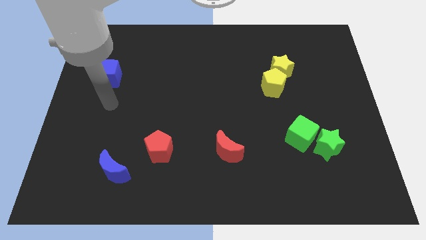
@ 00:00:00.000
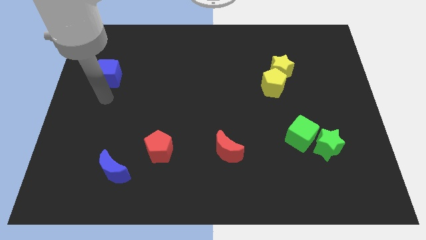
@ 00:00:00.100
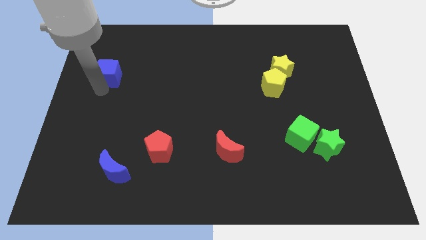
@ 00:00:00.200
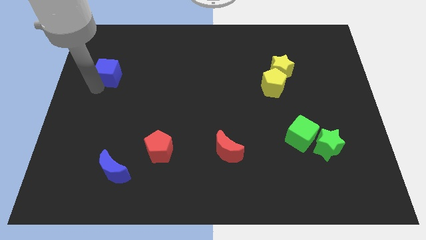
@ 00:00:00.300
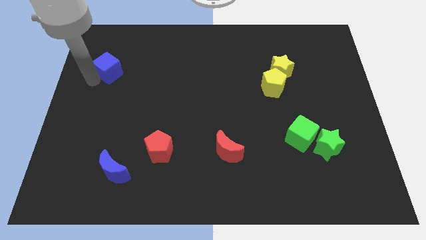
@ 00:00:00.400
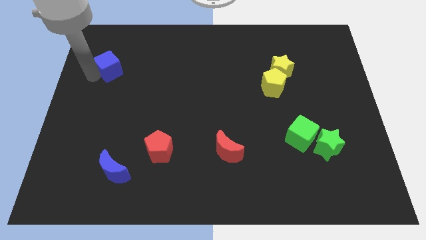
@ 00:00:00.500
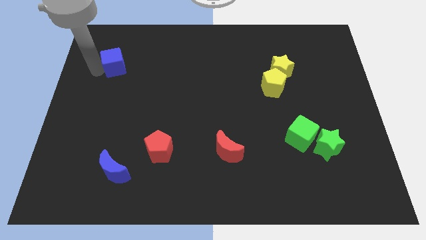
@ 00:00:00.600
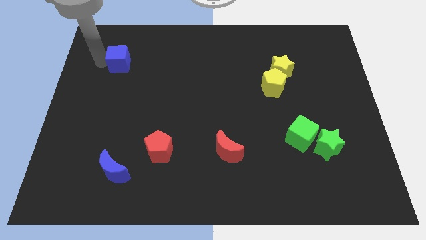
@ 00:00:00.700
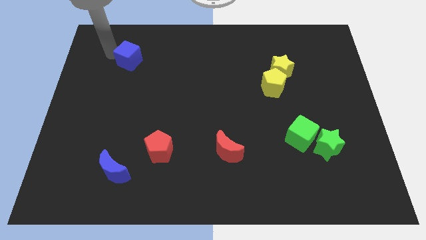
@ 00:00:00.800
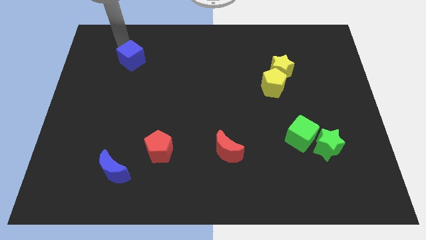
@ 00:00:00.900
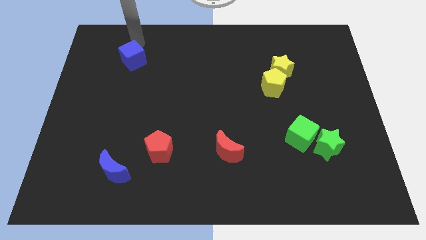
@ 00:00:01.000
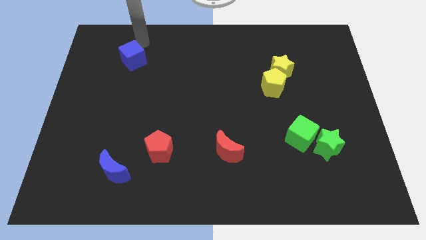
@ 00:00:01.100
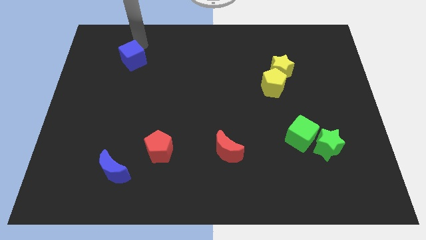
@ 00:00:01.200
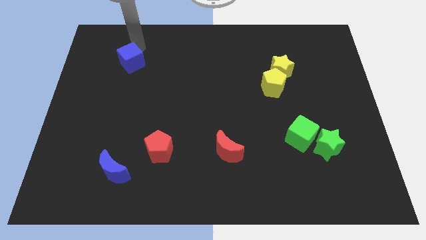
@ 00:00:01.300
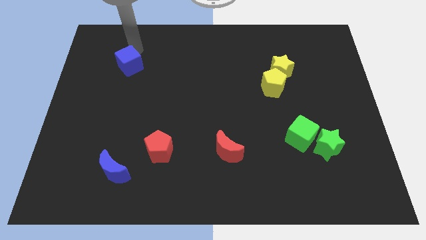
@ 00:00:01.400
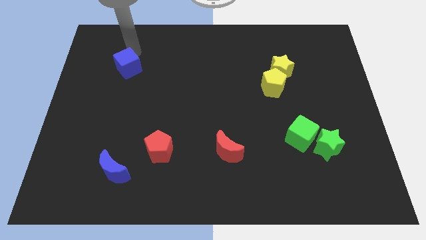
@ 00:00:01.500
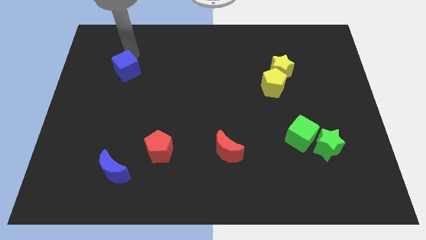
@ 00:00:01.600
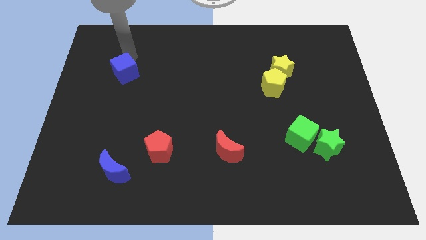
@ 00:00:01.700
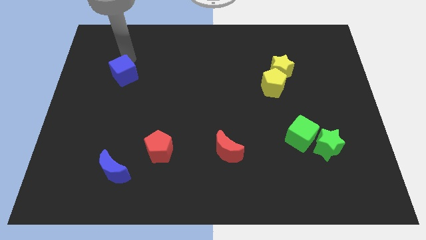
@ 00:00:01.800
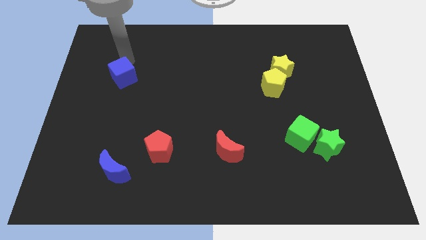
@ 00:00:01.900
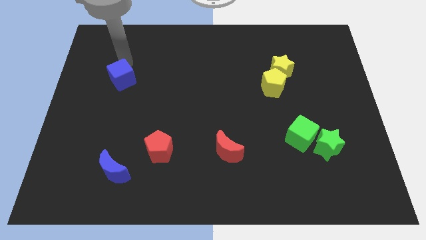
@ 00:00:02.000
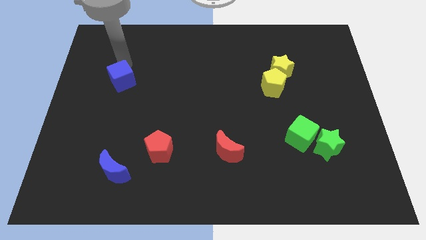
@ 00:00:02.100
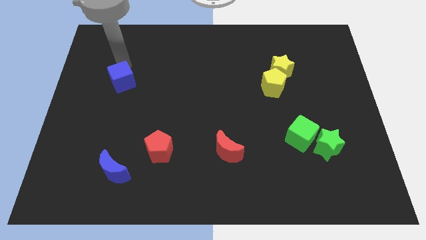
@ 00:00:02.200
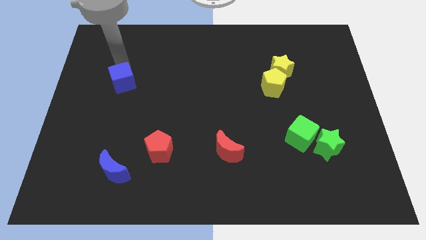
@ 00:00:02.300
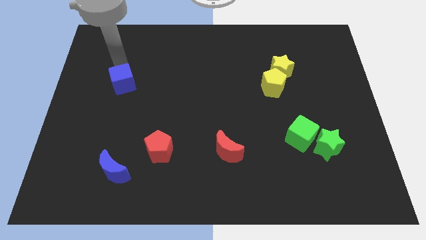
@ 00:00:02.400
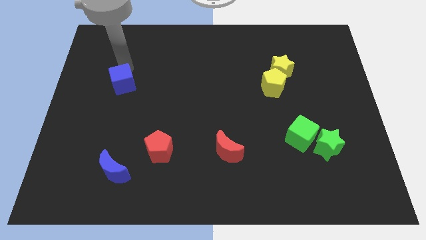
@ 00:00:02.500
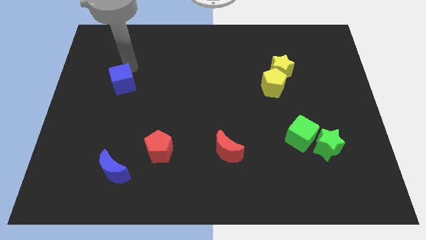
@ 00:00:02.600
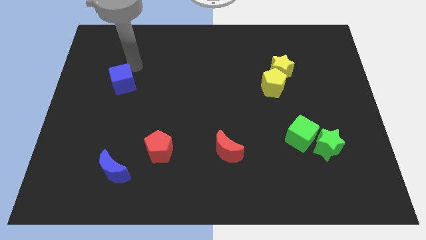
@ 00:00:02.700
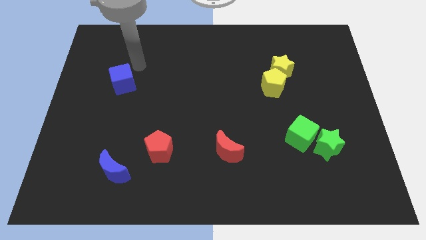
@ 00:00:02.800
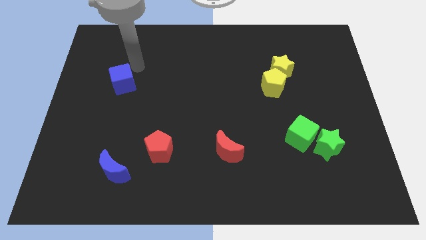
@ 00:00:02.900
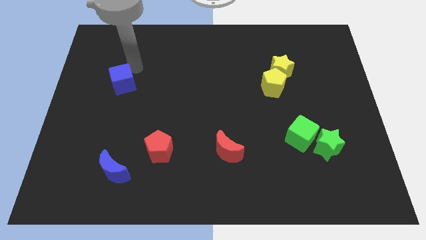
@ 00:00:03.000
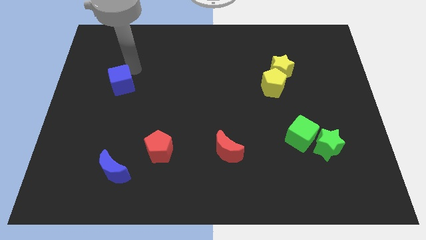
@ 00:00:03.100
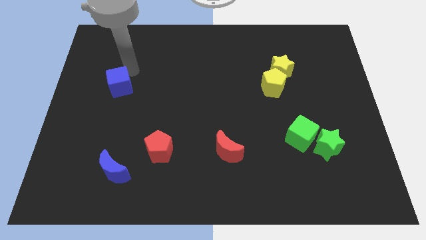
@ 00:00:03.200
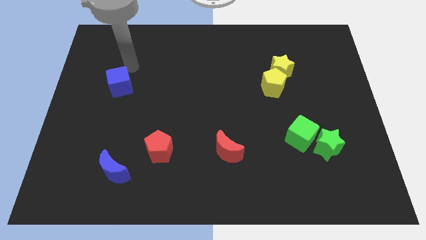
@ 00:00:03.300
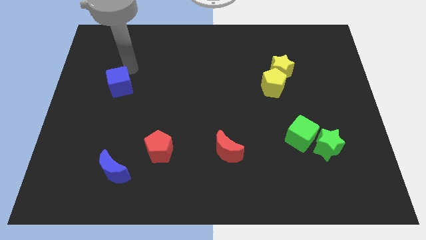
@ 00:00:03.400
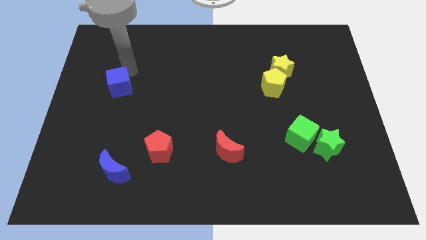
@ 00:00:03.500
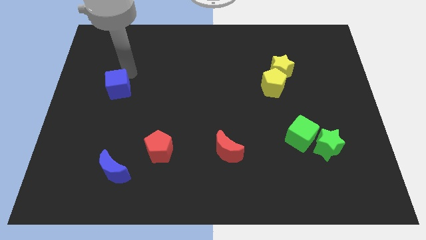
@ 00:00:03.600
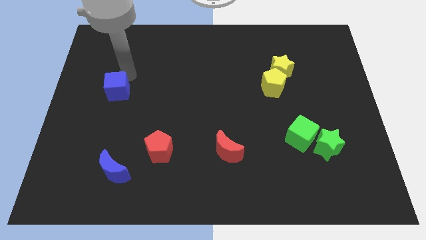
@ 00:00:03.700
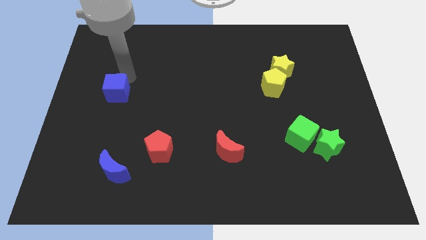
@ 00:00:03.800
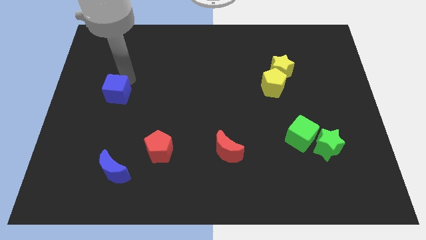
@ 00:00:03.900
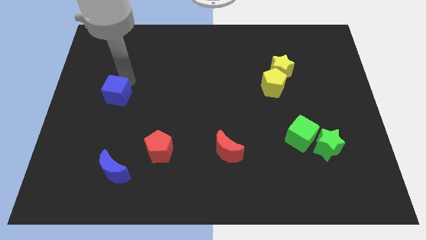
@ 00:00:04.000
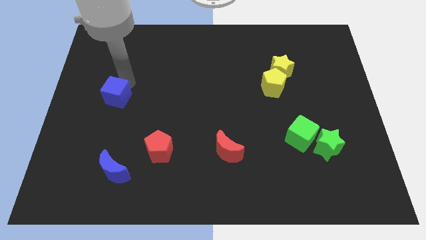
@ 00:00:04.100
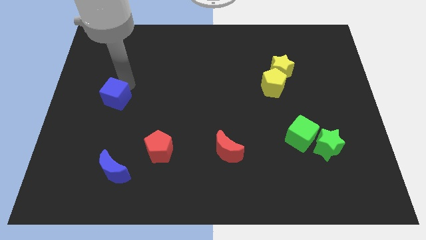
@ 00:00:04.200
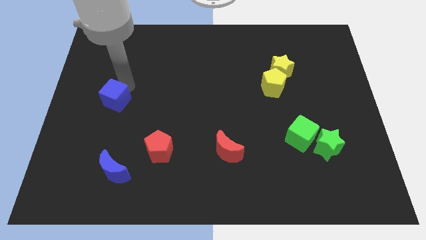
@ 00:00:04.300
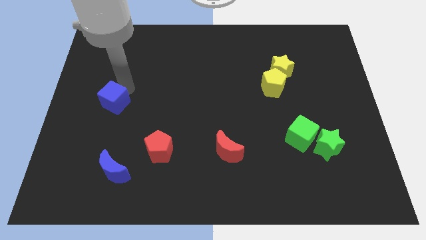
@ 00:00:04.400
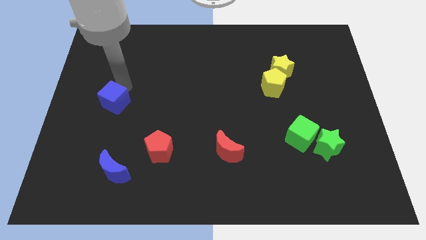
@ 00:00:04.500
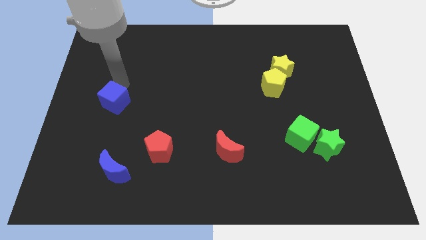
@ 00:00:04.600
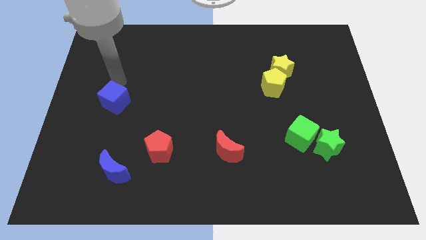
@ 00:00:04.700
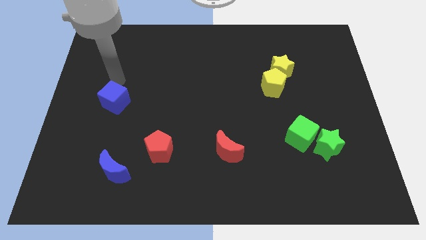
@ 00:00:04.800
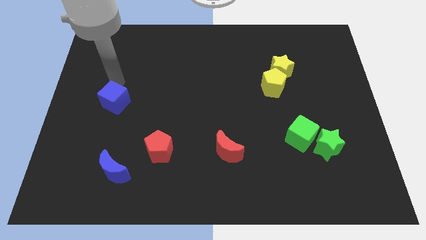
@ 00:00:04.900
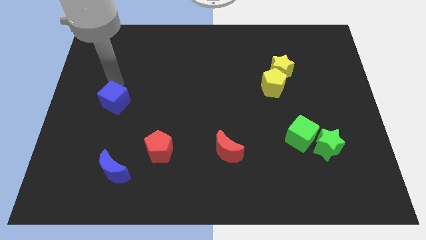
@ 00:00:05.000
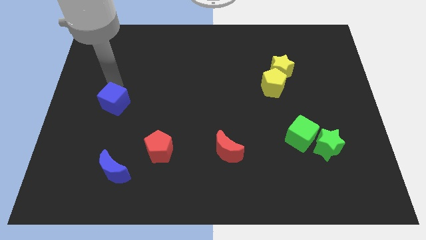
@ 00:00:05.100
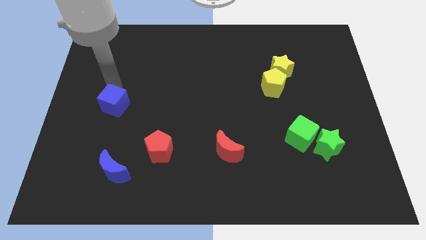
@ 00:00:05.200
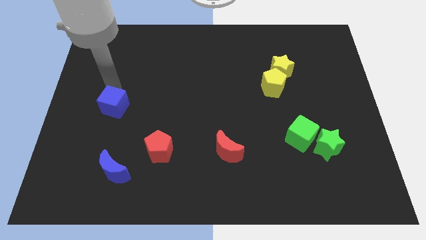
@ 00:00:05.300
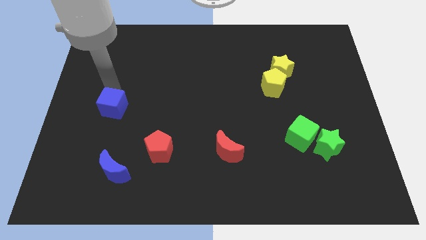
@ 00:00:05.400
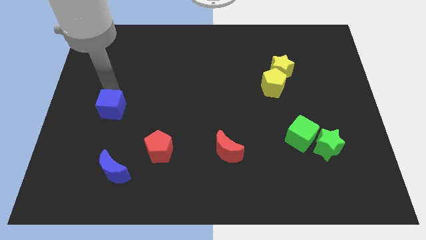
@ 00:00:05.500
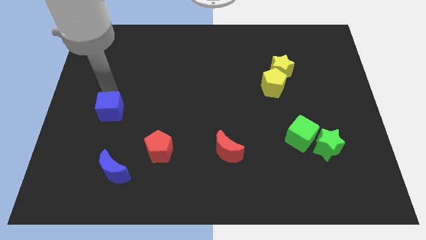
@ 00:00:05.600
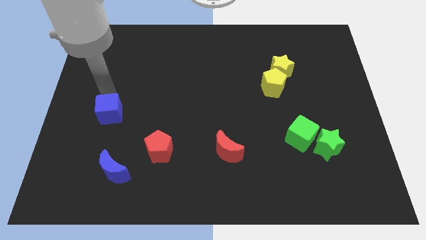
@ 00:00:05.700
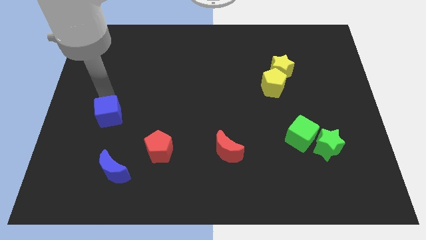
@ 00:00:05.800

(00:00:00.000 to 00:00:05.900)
slide the blue cube to the top of the blue moon
